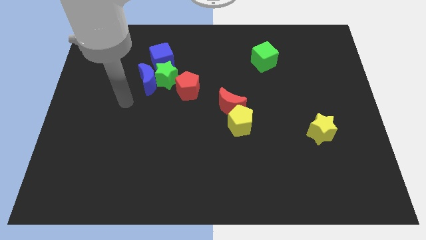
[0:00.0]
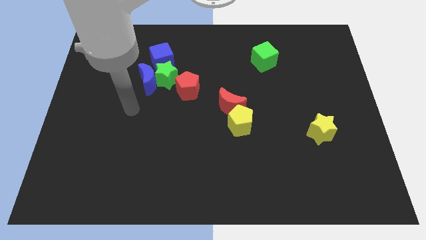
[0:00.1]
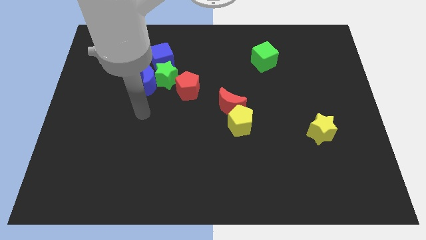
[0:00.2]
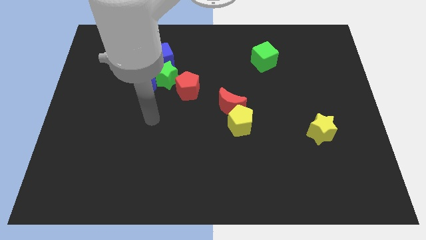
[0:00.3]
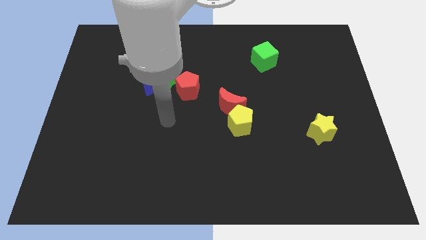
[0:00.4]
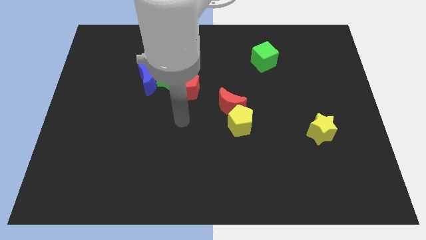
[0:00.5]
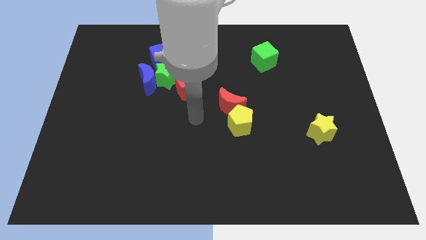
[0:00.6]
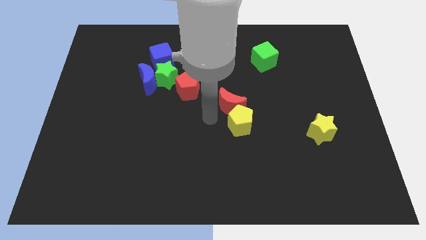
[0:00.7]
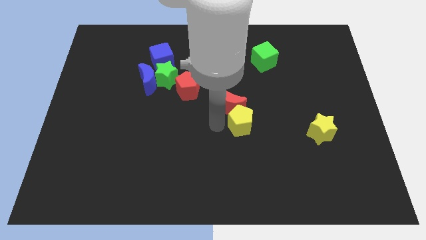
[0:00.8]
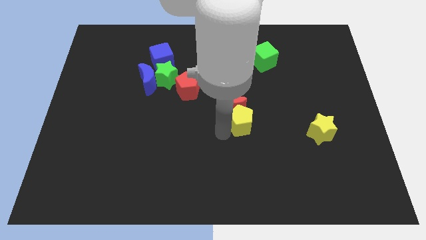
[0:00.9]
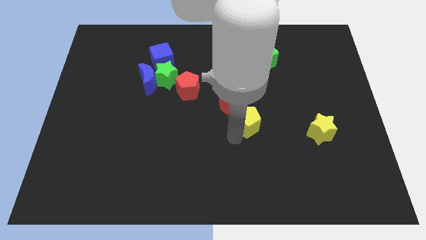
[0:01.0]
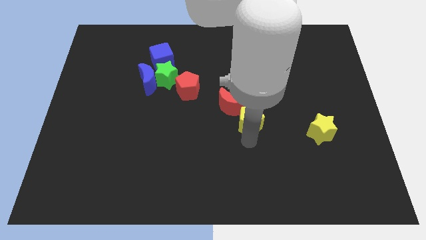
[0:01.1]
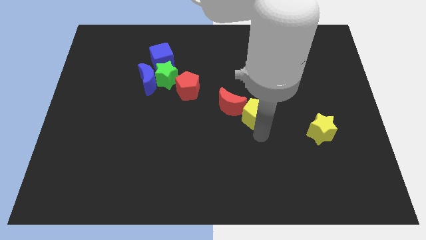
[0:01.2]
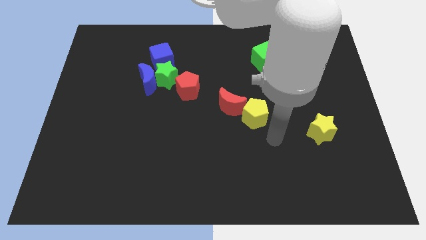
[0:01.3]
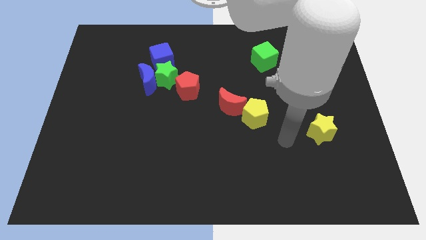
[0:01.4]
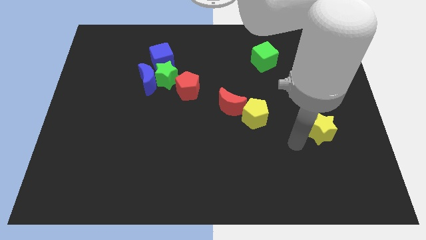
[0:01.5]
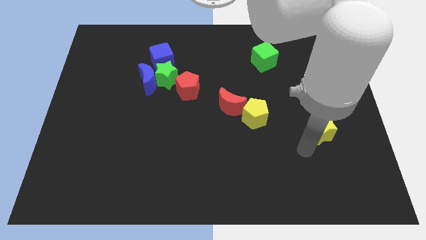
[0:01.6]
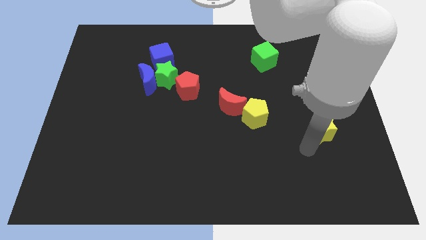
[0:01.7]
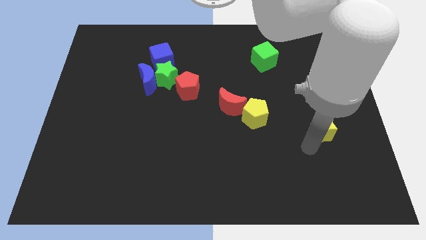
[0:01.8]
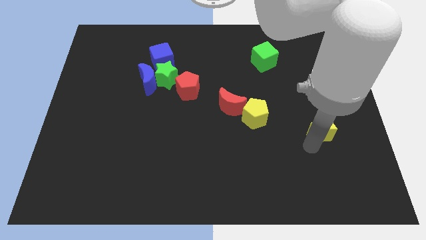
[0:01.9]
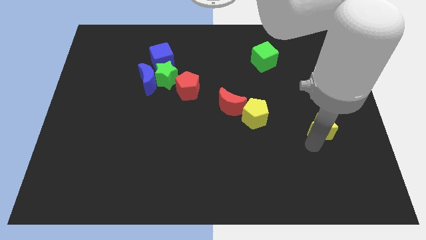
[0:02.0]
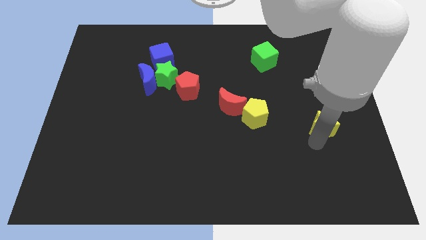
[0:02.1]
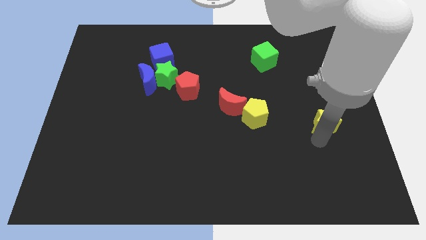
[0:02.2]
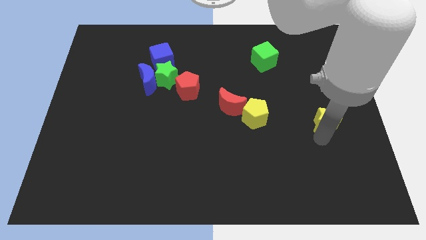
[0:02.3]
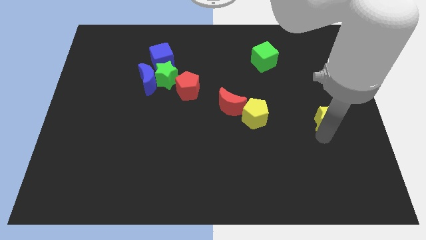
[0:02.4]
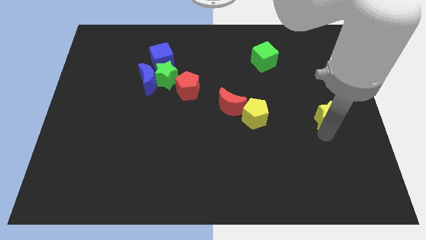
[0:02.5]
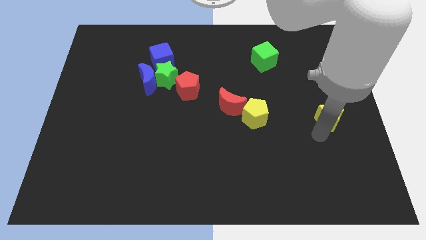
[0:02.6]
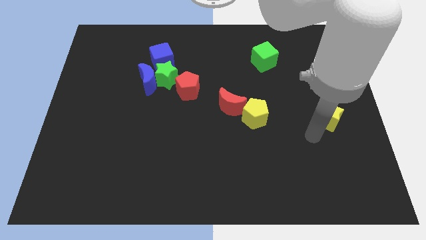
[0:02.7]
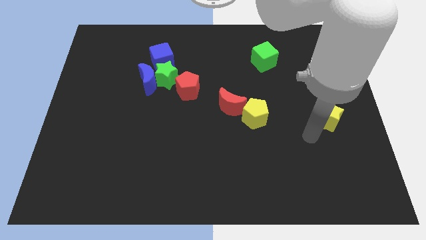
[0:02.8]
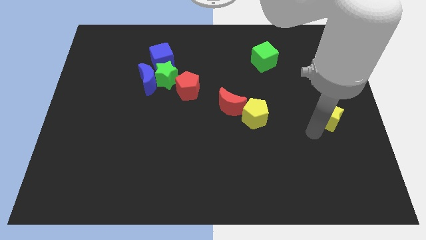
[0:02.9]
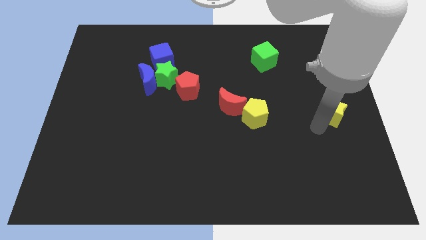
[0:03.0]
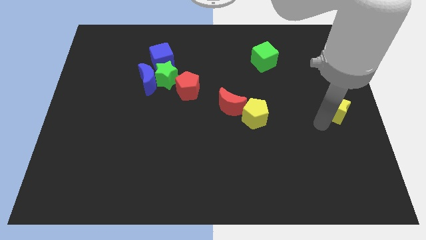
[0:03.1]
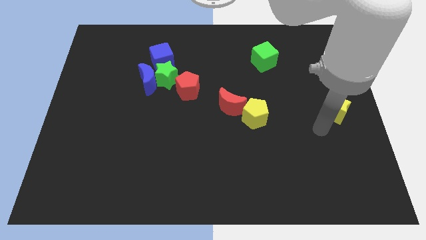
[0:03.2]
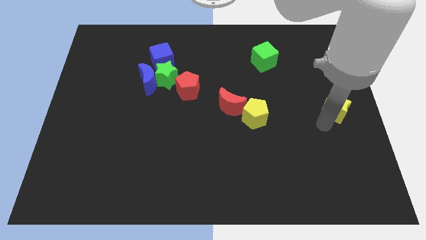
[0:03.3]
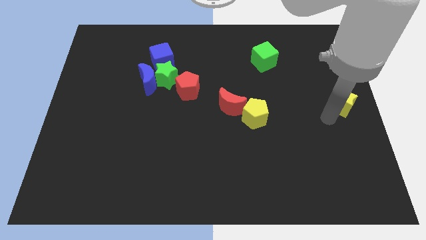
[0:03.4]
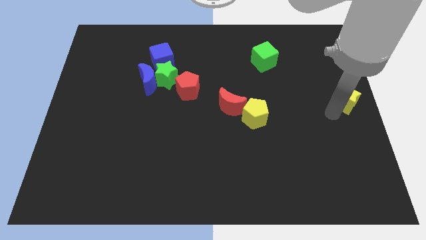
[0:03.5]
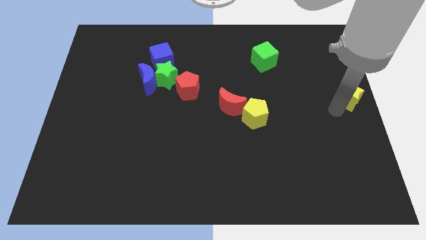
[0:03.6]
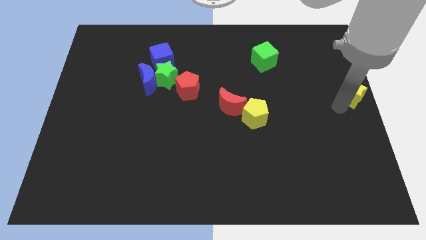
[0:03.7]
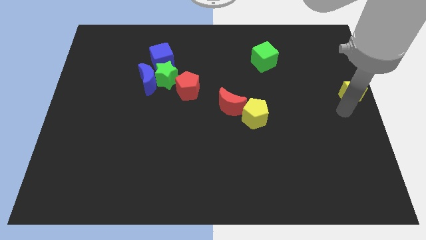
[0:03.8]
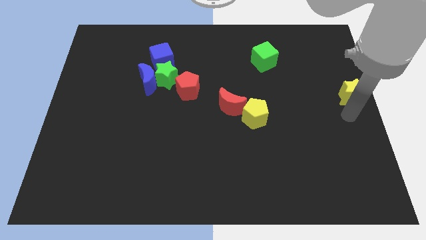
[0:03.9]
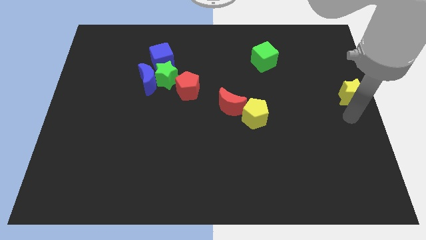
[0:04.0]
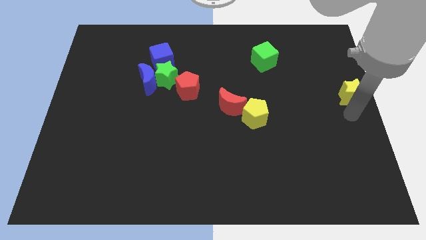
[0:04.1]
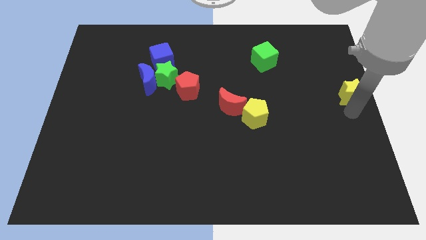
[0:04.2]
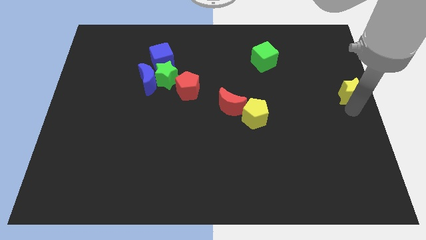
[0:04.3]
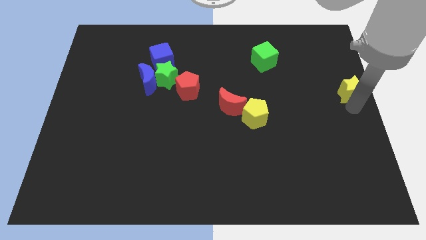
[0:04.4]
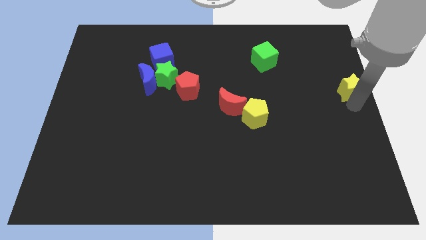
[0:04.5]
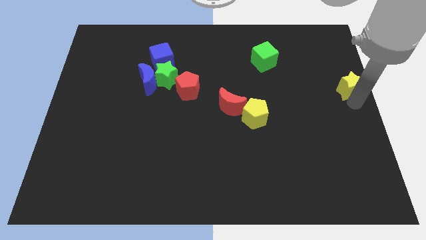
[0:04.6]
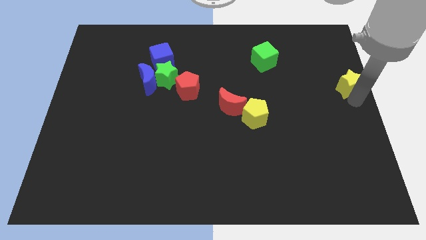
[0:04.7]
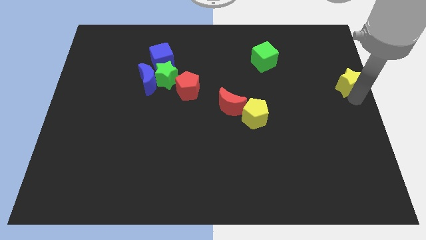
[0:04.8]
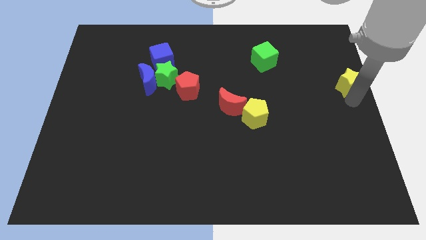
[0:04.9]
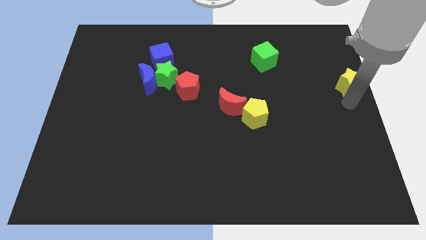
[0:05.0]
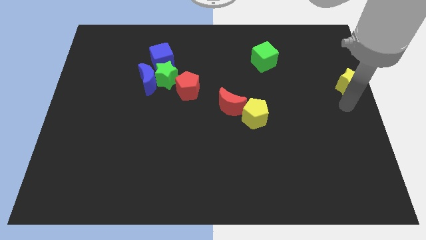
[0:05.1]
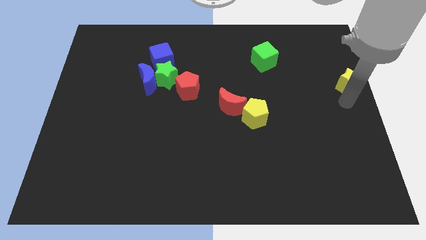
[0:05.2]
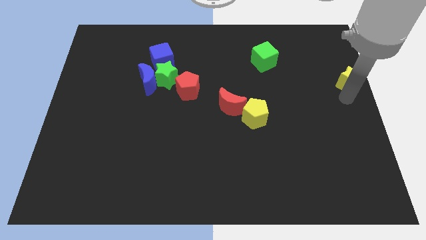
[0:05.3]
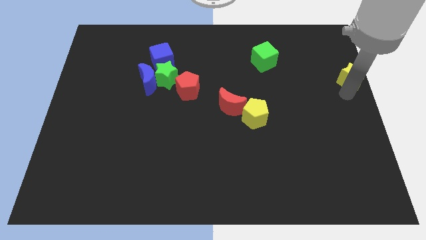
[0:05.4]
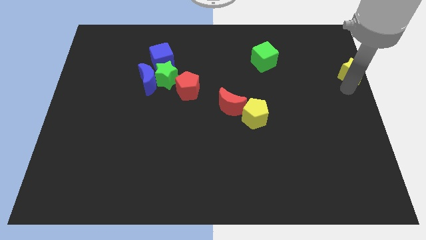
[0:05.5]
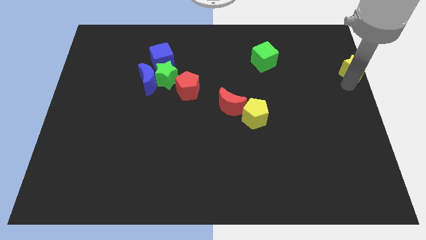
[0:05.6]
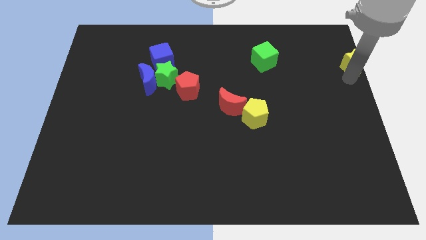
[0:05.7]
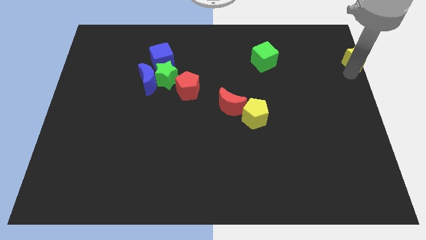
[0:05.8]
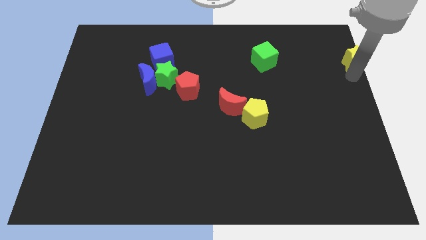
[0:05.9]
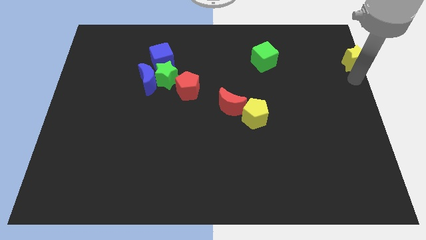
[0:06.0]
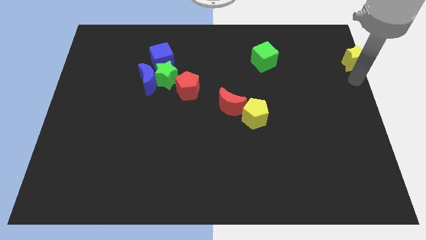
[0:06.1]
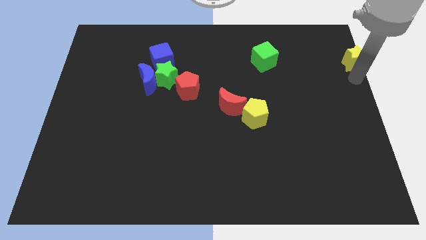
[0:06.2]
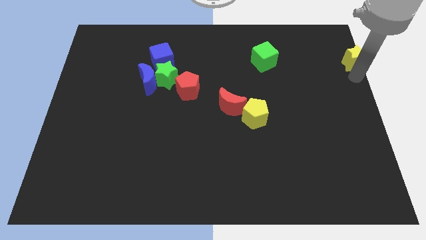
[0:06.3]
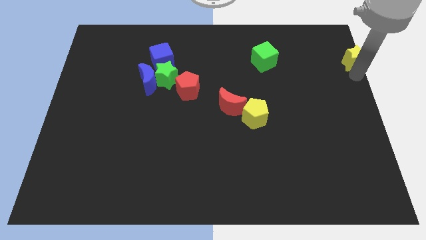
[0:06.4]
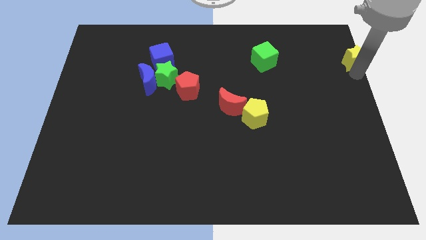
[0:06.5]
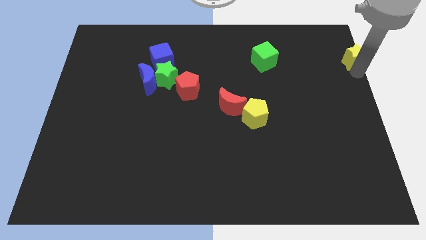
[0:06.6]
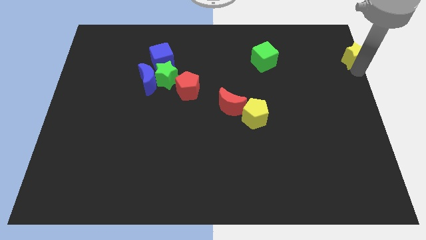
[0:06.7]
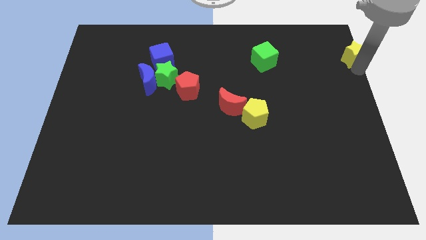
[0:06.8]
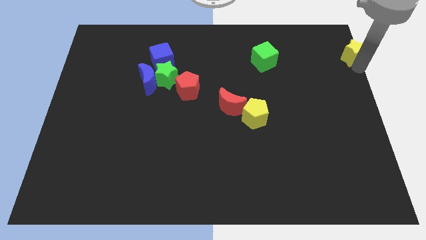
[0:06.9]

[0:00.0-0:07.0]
move the yellow star to the upper right corner
